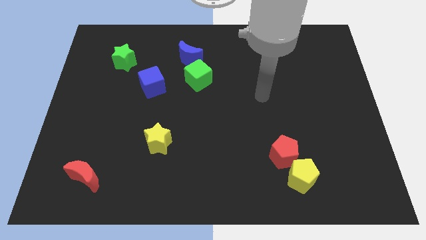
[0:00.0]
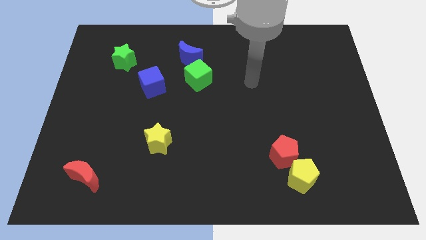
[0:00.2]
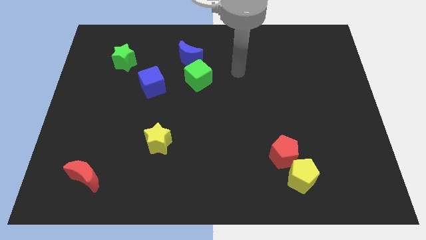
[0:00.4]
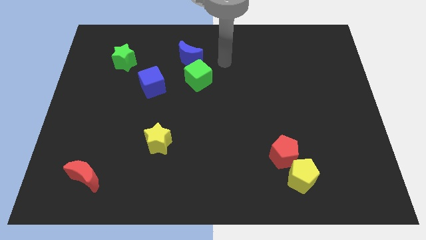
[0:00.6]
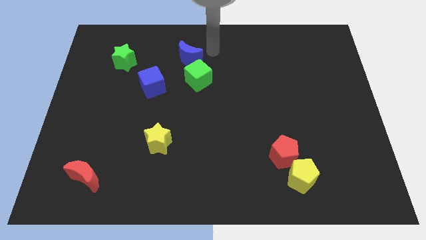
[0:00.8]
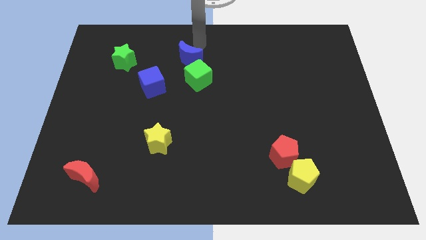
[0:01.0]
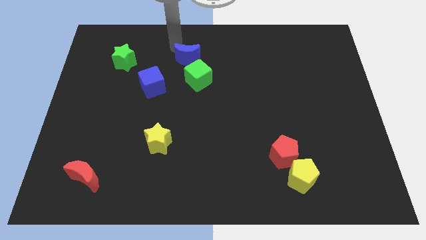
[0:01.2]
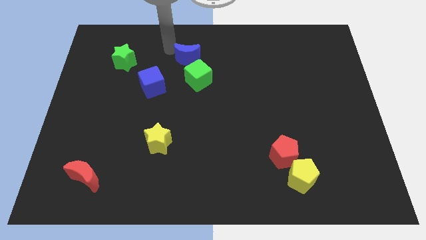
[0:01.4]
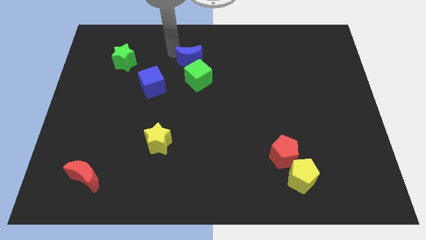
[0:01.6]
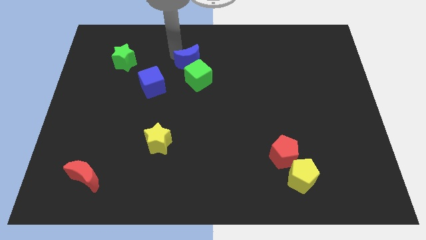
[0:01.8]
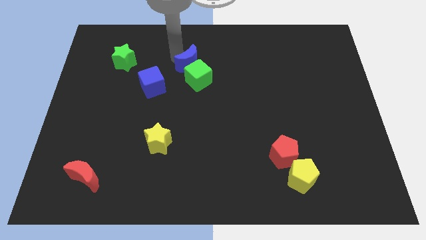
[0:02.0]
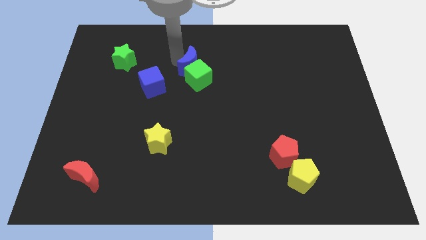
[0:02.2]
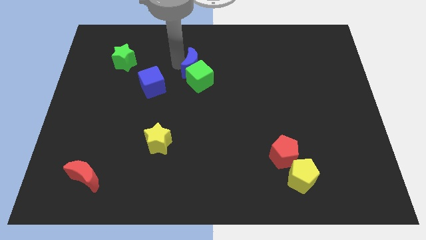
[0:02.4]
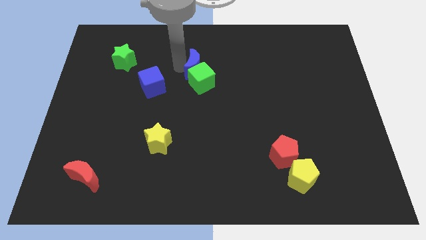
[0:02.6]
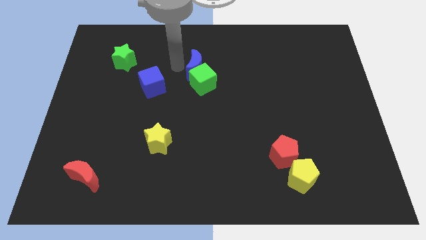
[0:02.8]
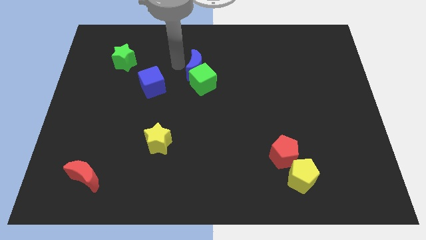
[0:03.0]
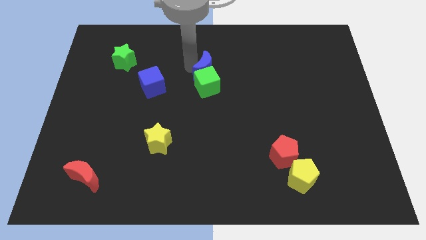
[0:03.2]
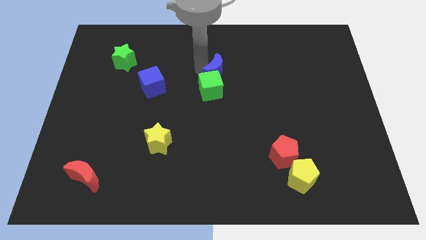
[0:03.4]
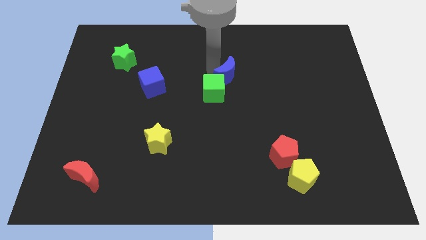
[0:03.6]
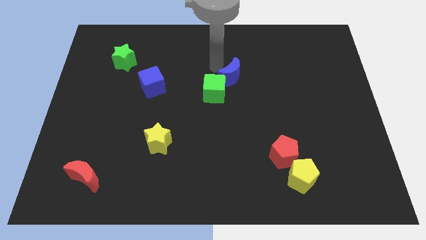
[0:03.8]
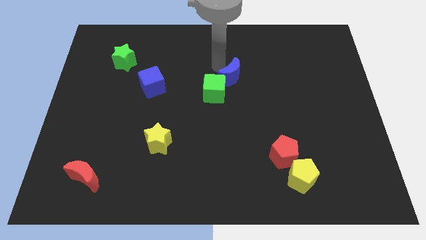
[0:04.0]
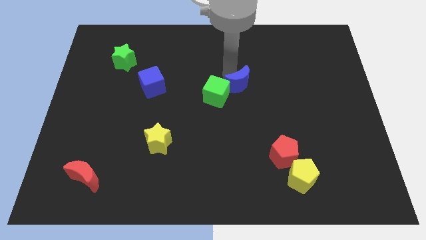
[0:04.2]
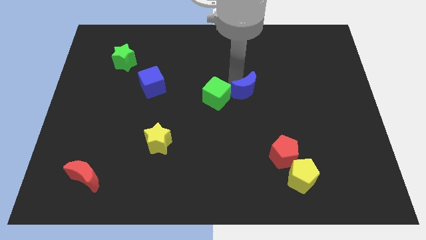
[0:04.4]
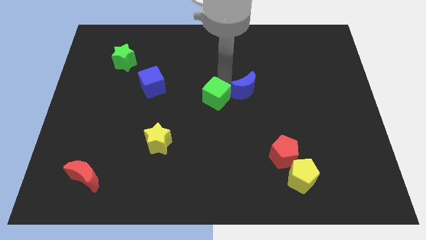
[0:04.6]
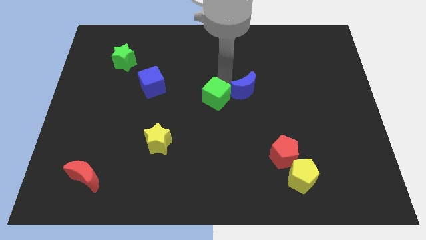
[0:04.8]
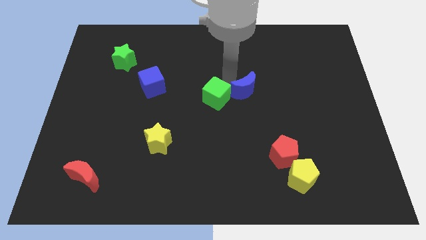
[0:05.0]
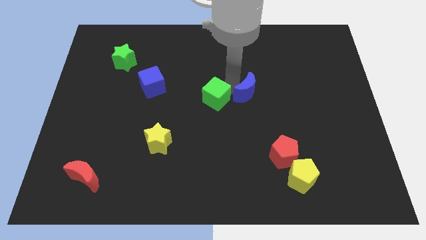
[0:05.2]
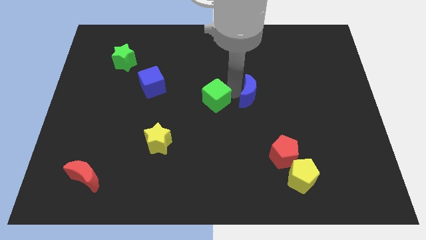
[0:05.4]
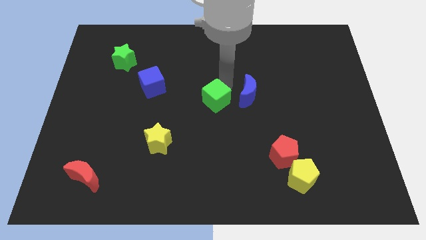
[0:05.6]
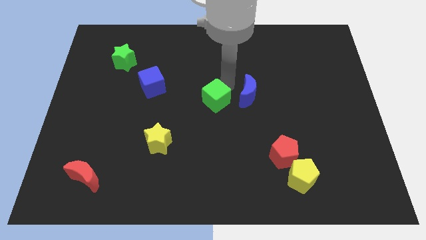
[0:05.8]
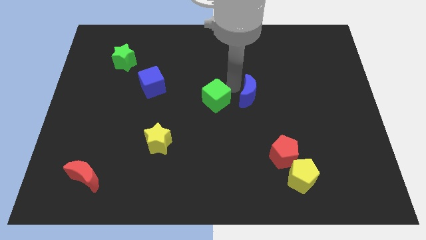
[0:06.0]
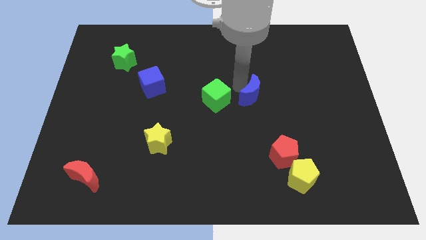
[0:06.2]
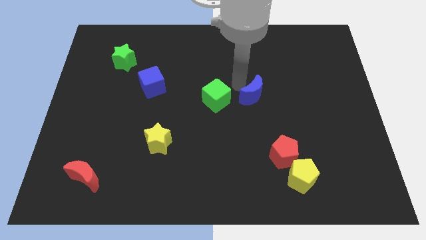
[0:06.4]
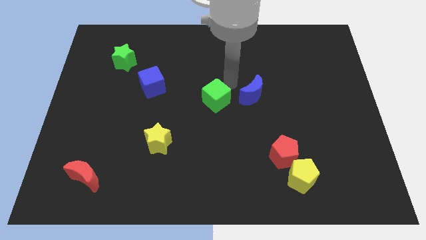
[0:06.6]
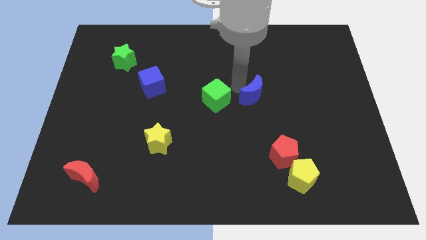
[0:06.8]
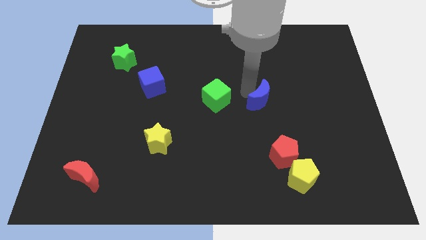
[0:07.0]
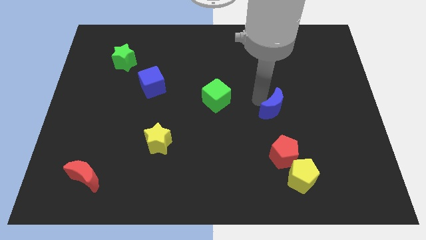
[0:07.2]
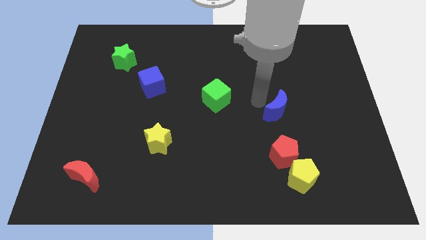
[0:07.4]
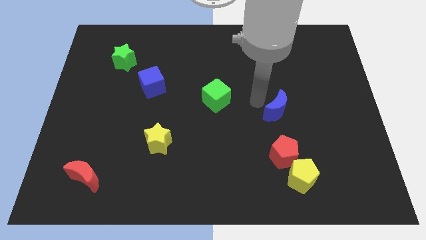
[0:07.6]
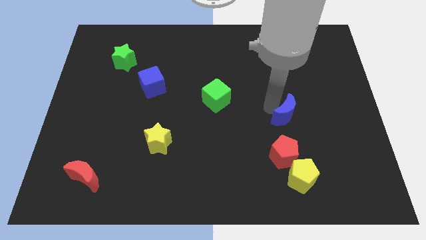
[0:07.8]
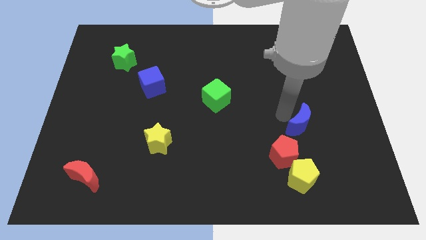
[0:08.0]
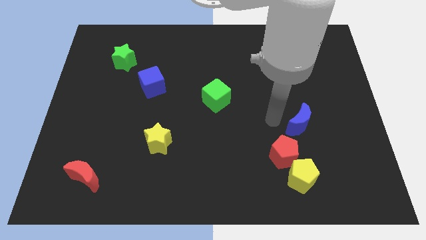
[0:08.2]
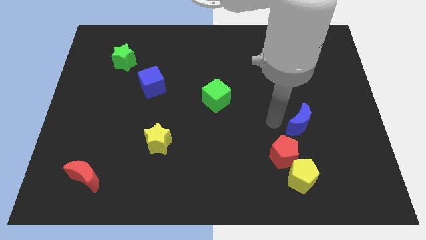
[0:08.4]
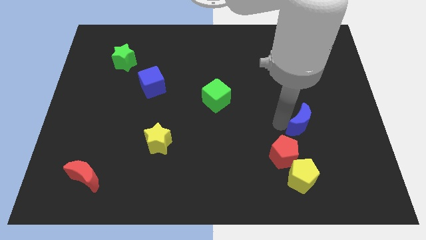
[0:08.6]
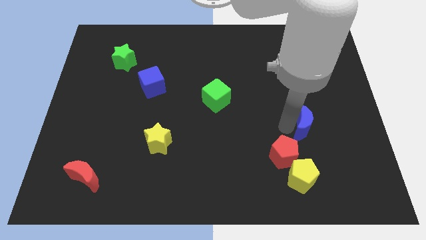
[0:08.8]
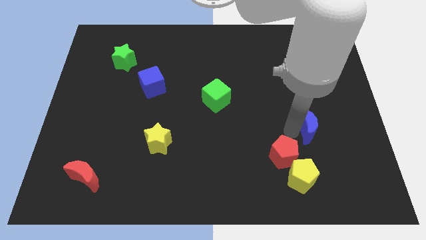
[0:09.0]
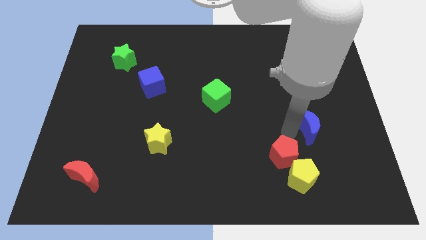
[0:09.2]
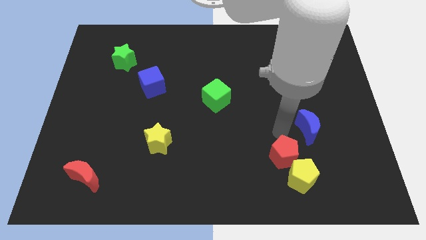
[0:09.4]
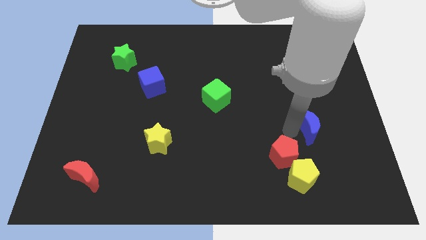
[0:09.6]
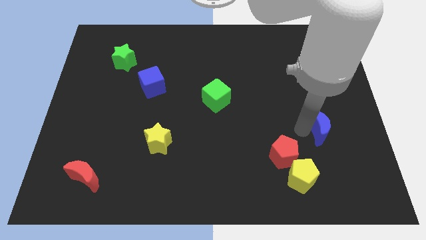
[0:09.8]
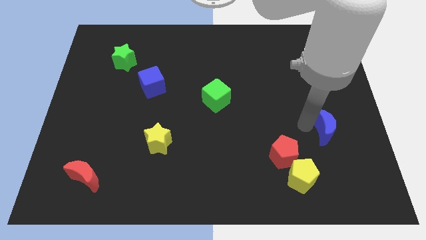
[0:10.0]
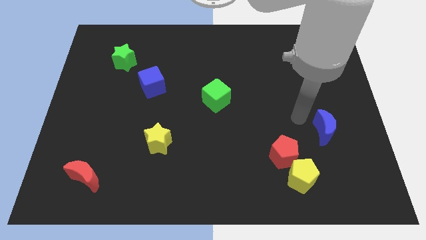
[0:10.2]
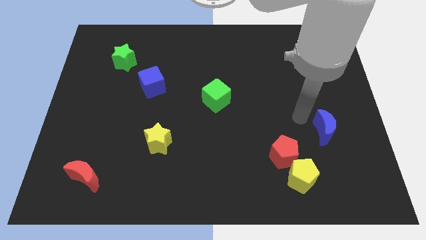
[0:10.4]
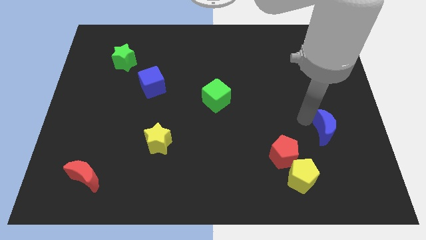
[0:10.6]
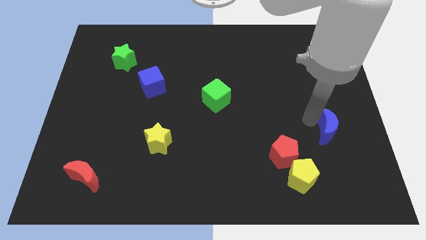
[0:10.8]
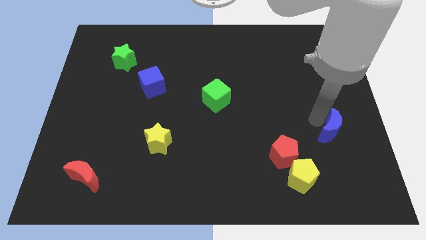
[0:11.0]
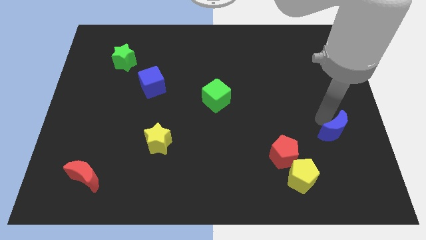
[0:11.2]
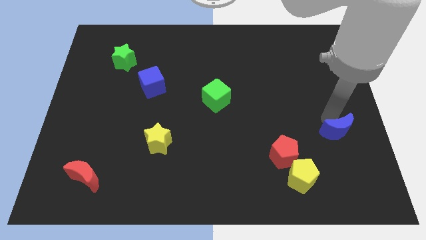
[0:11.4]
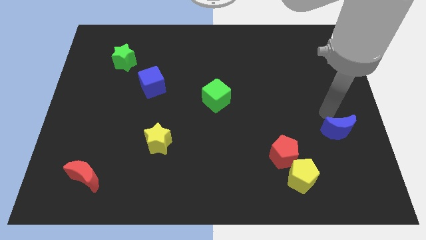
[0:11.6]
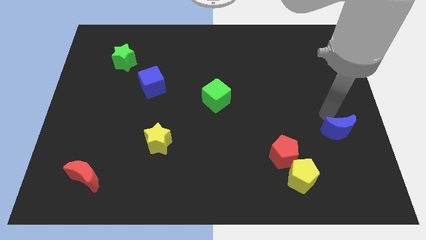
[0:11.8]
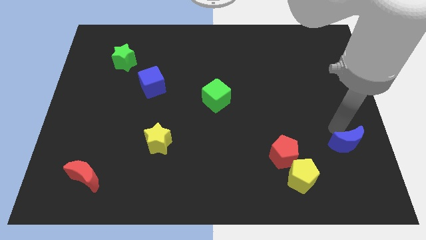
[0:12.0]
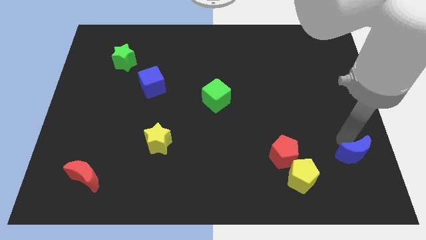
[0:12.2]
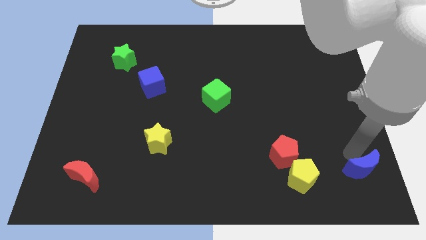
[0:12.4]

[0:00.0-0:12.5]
put the blue moon to the bottom right corner

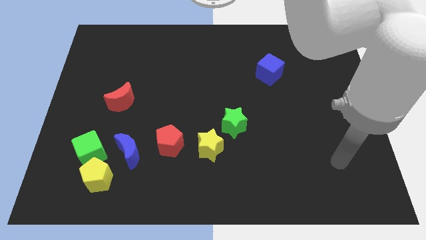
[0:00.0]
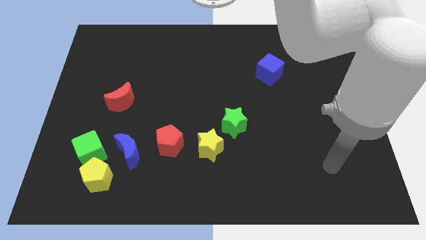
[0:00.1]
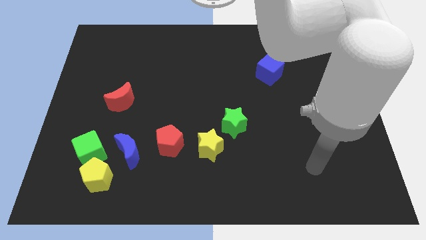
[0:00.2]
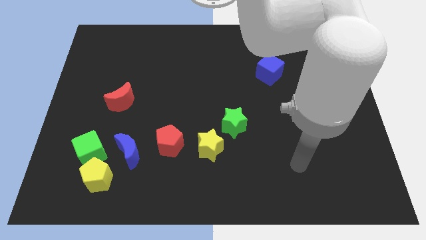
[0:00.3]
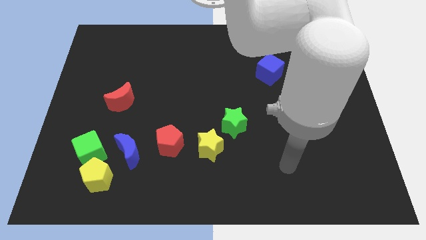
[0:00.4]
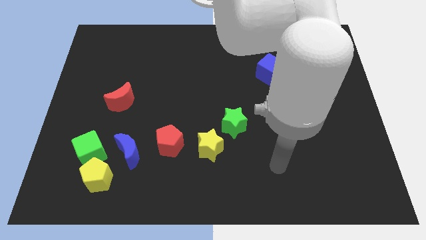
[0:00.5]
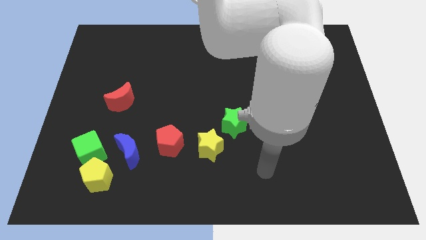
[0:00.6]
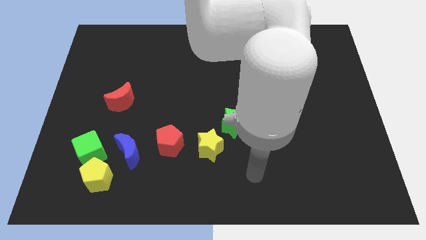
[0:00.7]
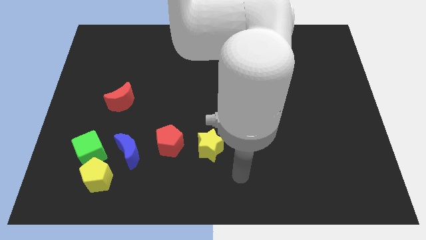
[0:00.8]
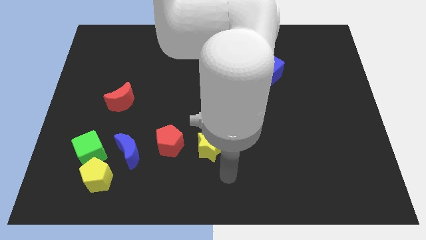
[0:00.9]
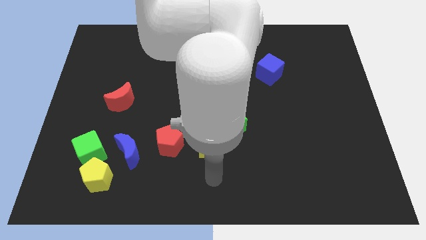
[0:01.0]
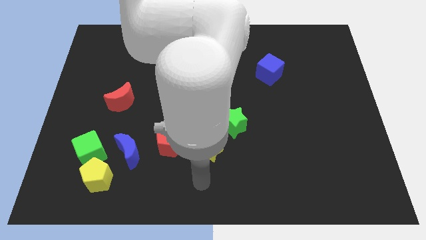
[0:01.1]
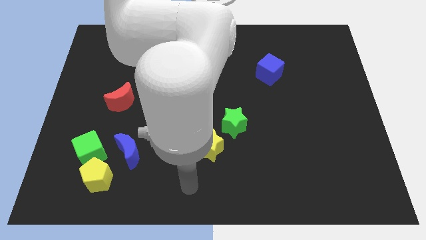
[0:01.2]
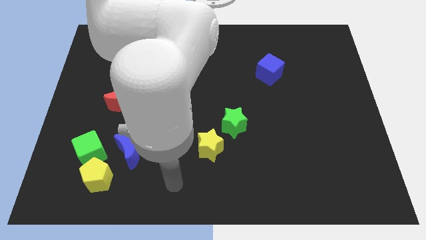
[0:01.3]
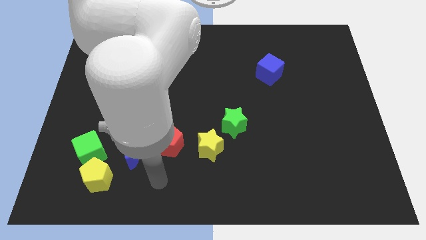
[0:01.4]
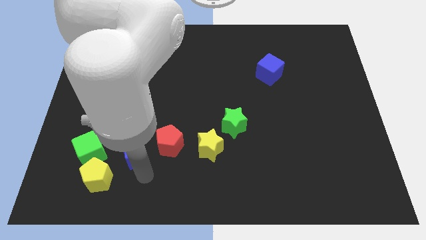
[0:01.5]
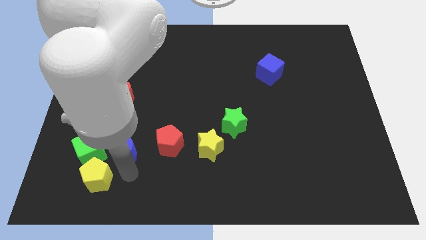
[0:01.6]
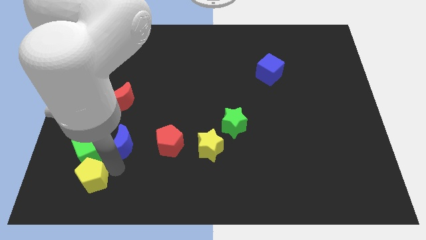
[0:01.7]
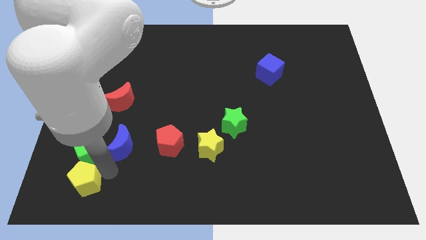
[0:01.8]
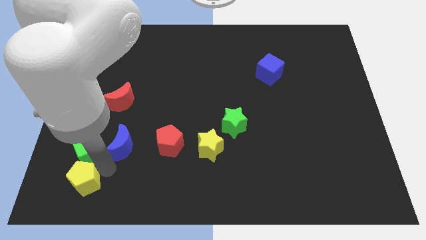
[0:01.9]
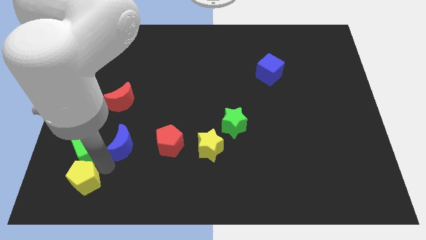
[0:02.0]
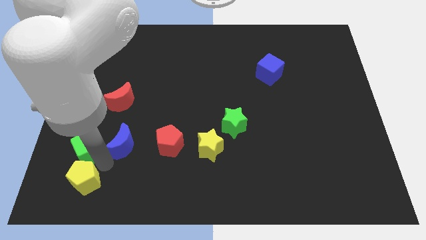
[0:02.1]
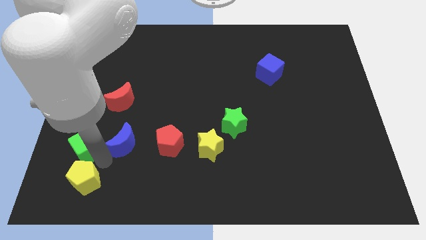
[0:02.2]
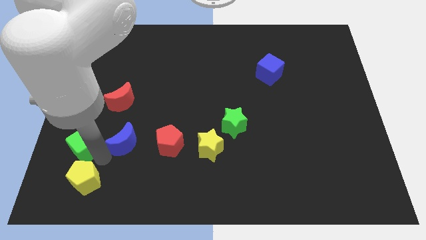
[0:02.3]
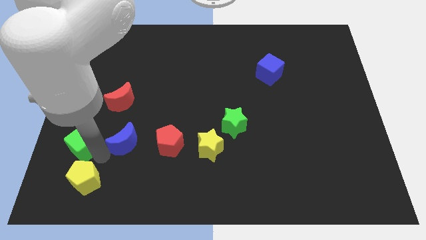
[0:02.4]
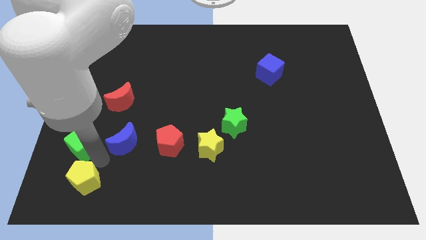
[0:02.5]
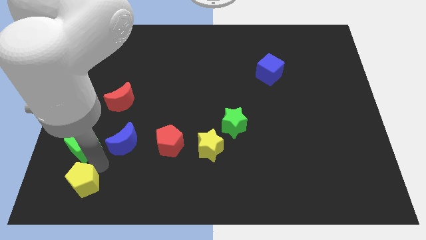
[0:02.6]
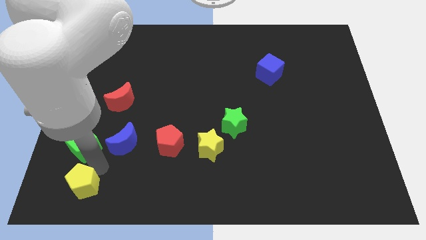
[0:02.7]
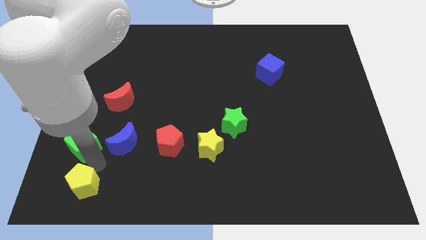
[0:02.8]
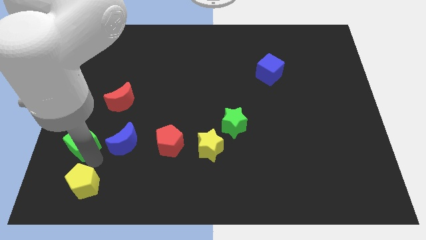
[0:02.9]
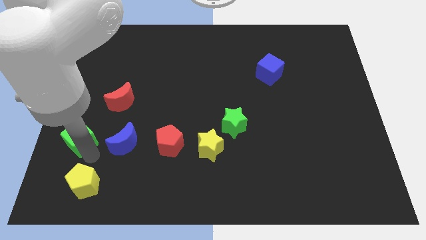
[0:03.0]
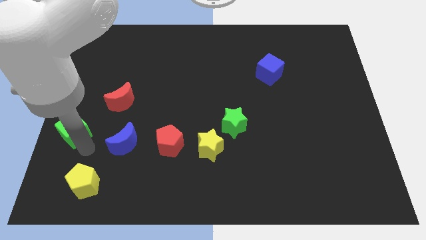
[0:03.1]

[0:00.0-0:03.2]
move the green cube to the left side of the board
